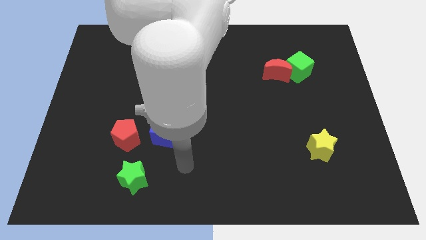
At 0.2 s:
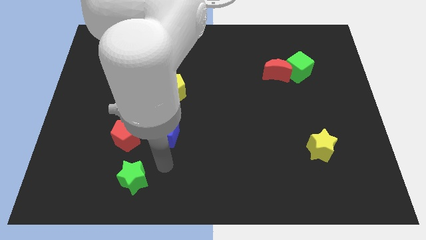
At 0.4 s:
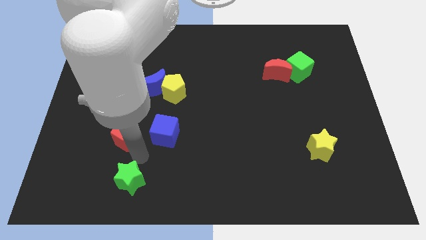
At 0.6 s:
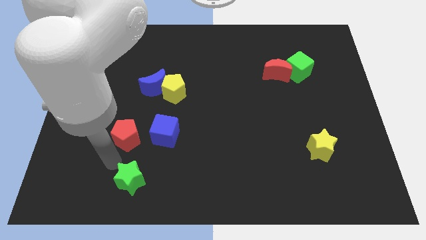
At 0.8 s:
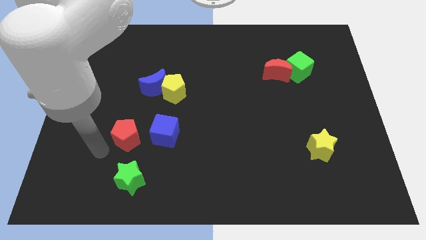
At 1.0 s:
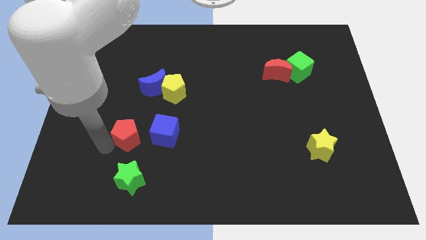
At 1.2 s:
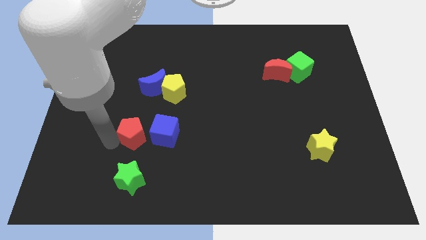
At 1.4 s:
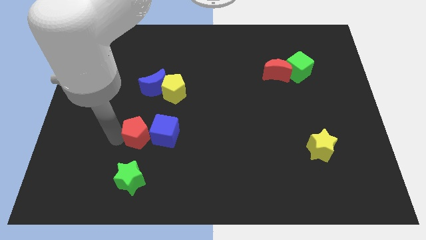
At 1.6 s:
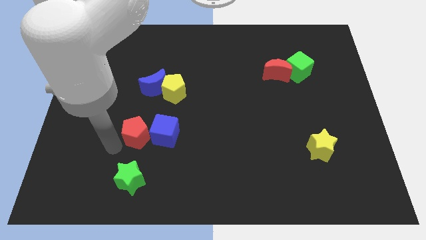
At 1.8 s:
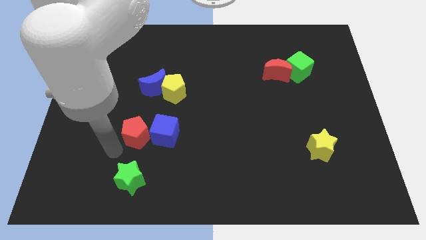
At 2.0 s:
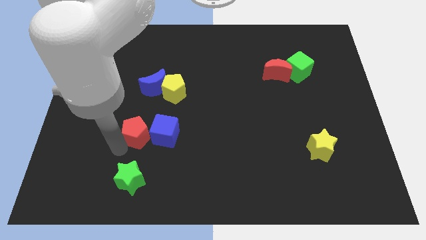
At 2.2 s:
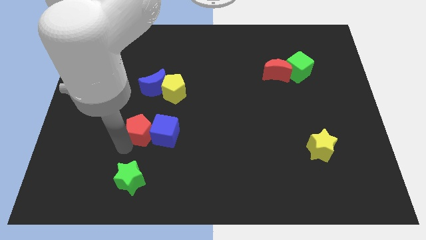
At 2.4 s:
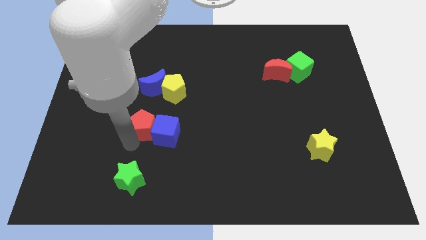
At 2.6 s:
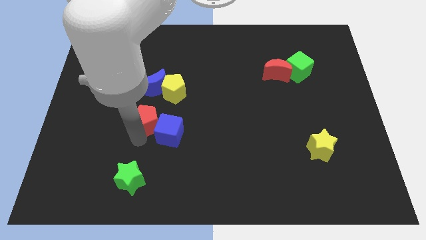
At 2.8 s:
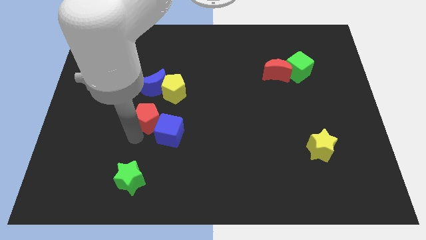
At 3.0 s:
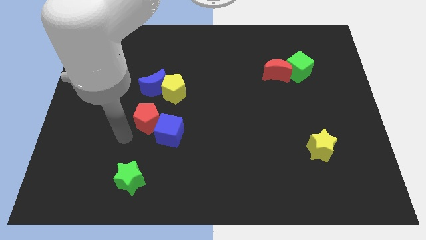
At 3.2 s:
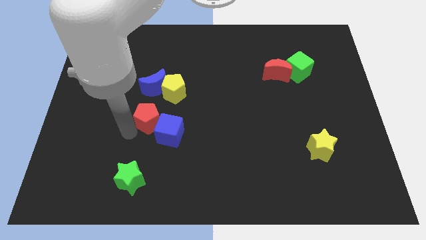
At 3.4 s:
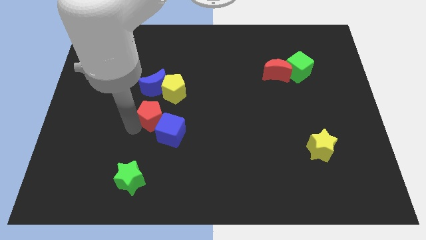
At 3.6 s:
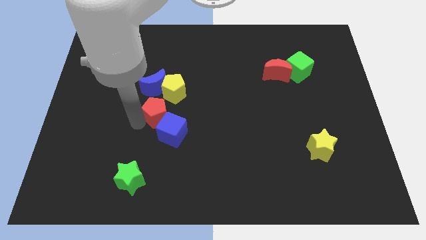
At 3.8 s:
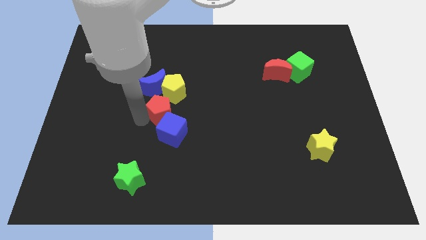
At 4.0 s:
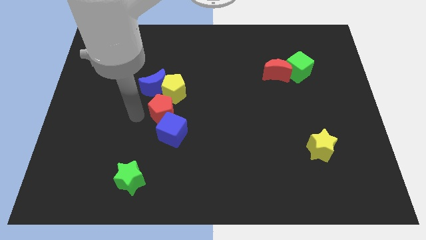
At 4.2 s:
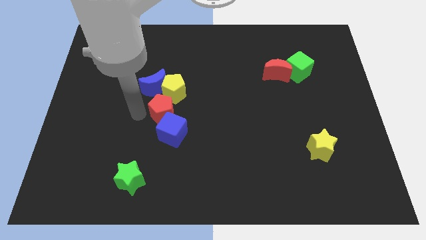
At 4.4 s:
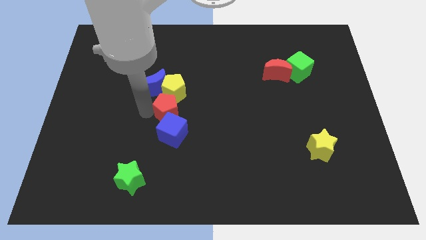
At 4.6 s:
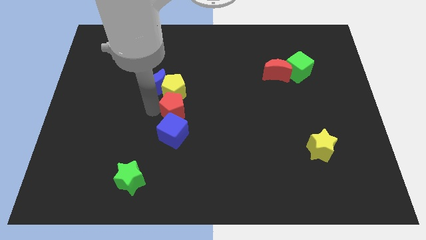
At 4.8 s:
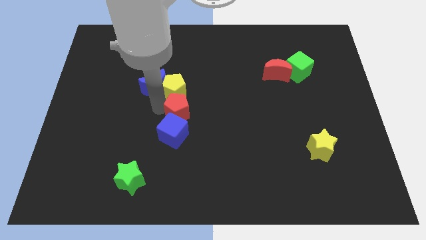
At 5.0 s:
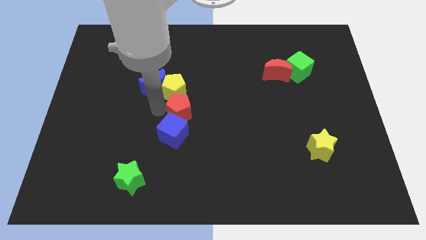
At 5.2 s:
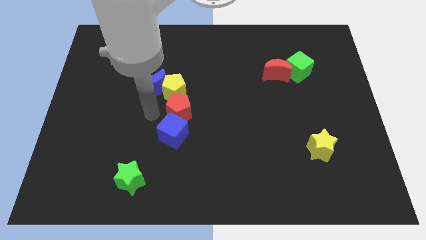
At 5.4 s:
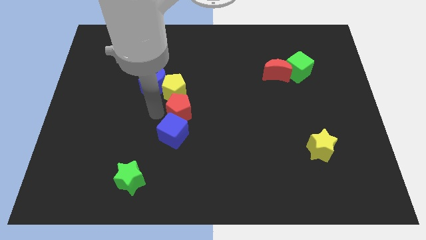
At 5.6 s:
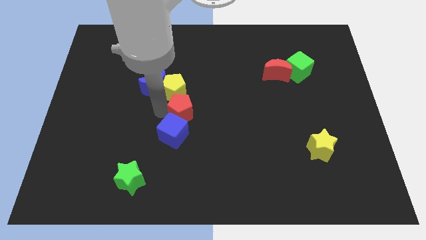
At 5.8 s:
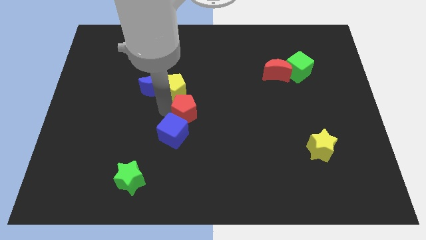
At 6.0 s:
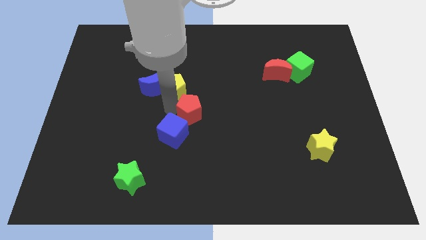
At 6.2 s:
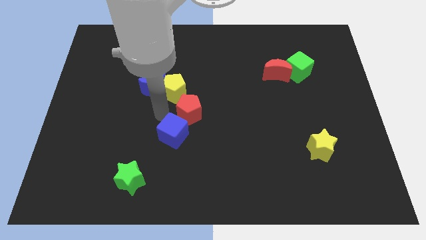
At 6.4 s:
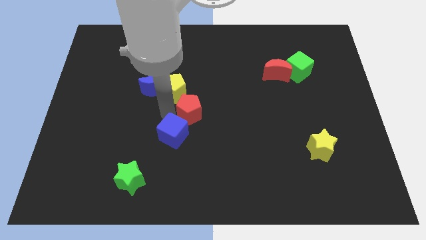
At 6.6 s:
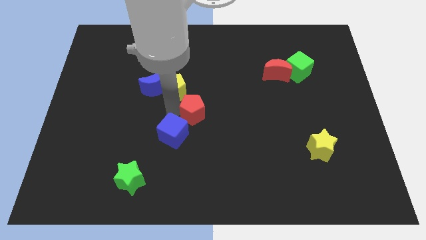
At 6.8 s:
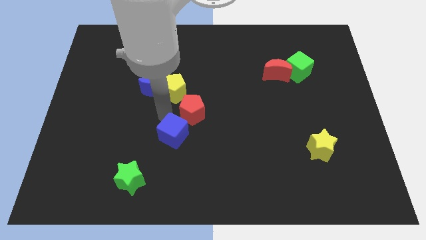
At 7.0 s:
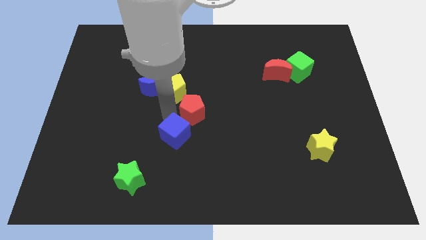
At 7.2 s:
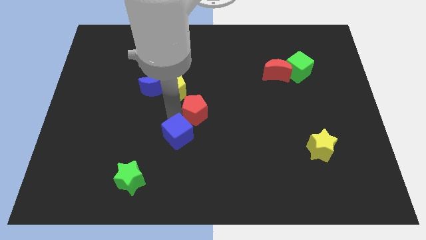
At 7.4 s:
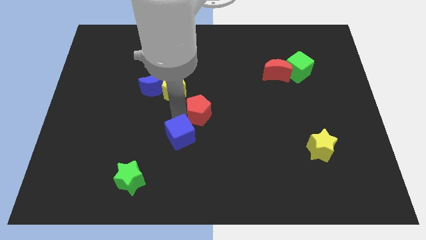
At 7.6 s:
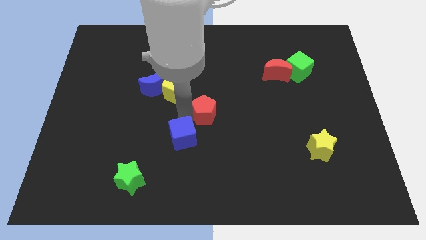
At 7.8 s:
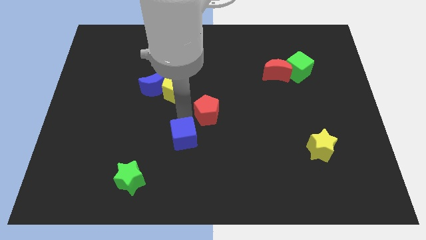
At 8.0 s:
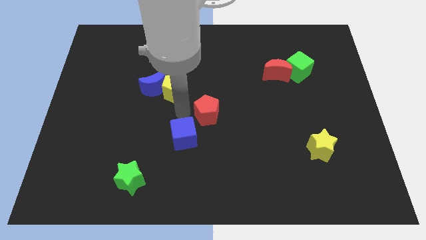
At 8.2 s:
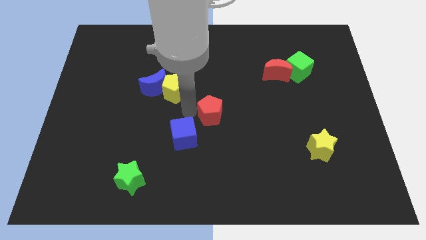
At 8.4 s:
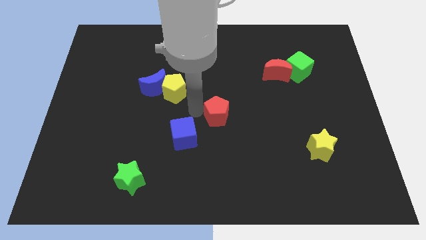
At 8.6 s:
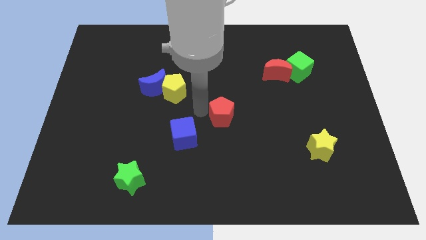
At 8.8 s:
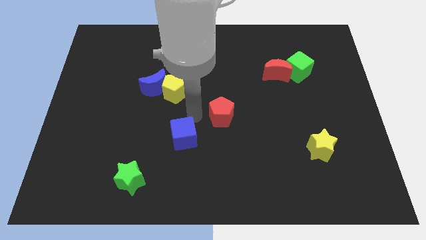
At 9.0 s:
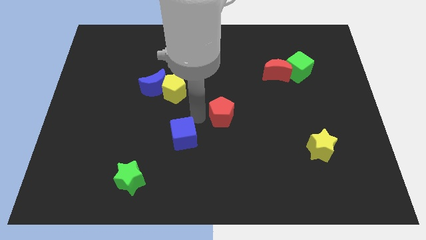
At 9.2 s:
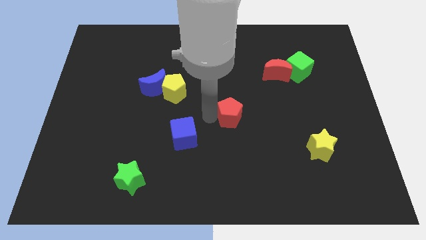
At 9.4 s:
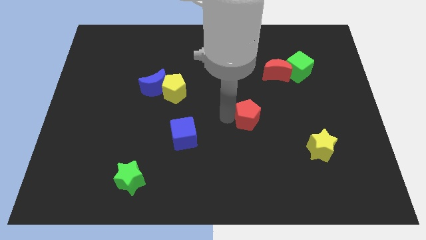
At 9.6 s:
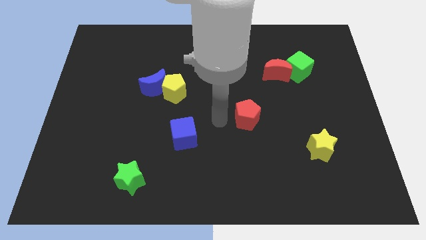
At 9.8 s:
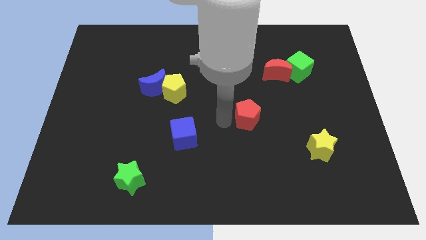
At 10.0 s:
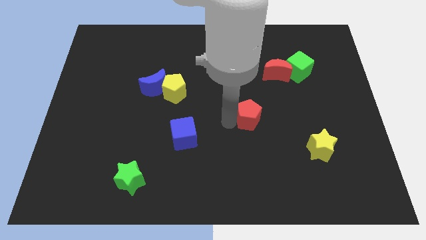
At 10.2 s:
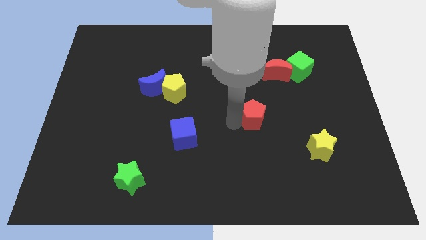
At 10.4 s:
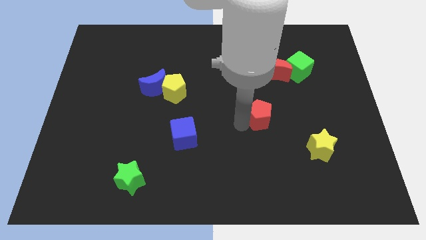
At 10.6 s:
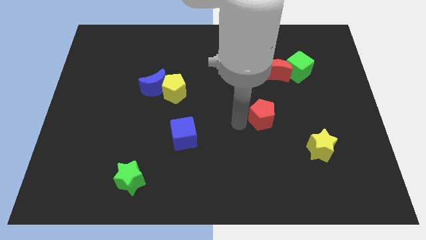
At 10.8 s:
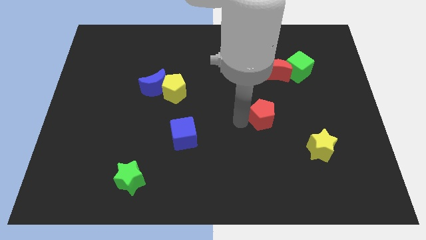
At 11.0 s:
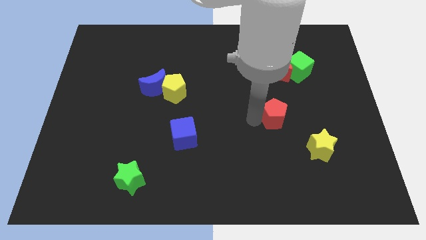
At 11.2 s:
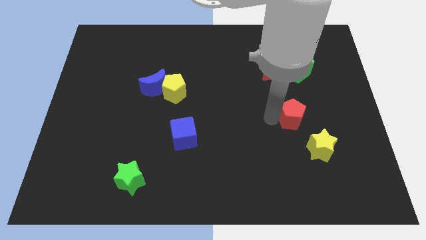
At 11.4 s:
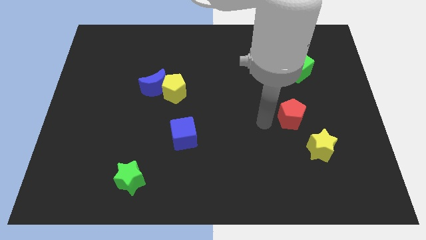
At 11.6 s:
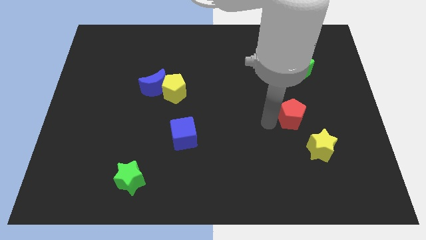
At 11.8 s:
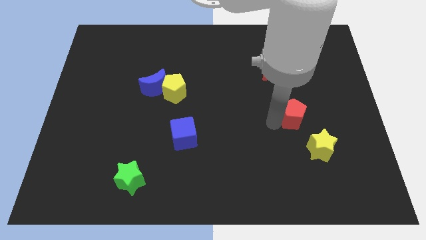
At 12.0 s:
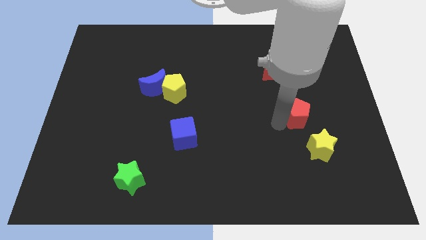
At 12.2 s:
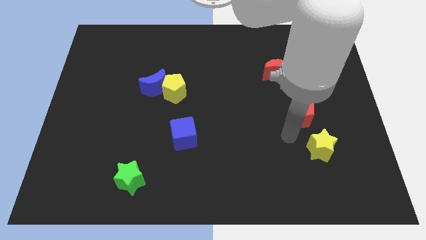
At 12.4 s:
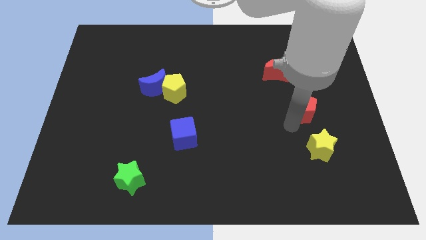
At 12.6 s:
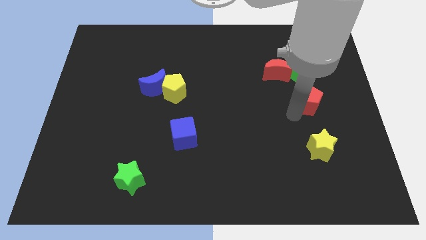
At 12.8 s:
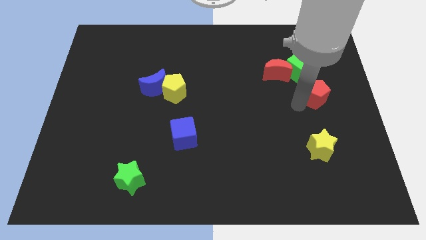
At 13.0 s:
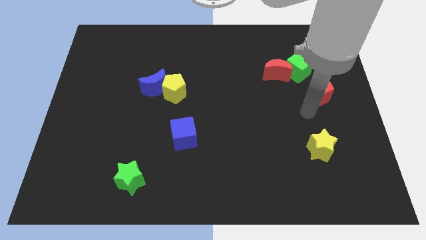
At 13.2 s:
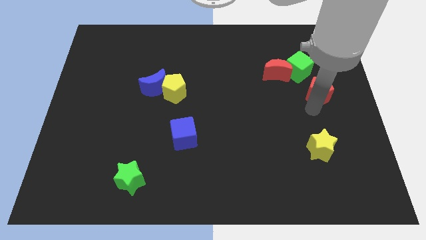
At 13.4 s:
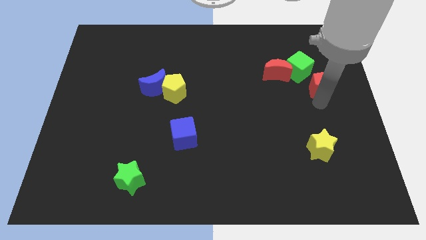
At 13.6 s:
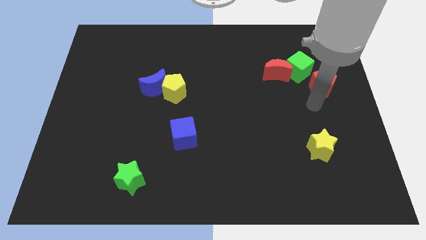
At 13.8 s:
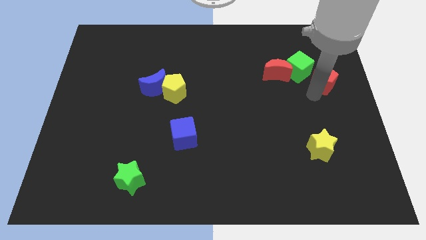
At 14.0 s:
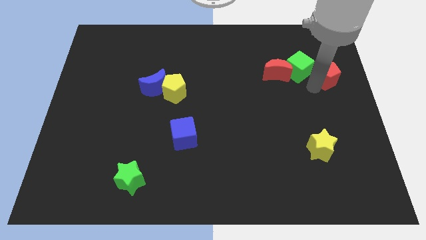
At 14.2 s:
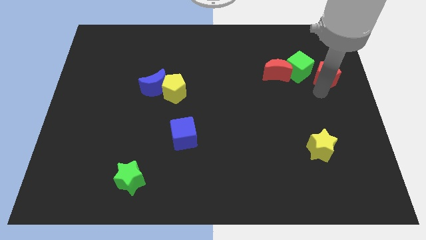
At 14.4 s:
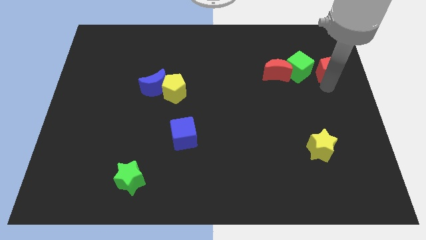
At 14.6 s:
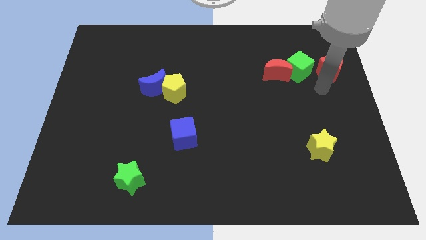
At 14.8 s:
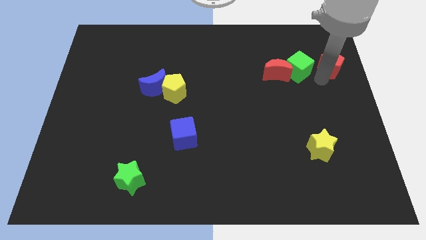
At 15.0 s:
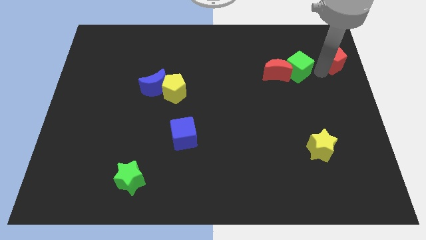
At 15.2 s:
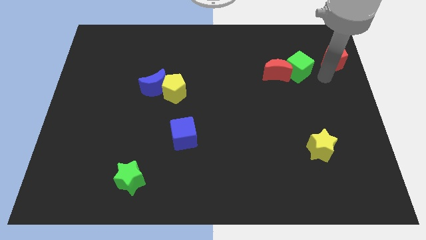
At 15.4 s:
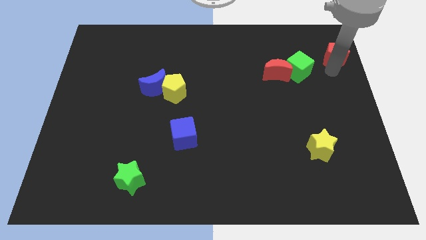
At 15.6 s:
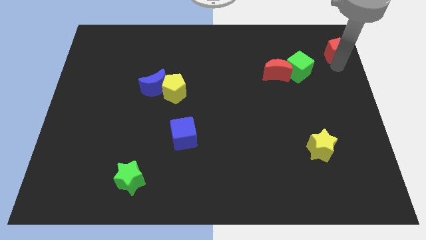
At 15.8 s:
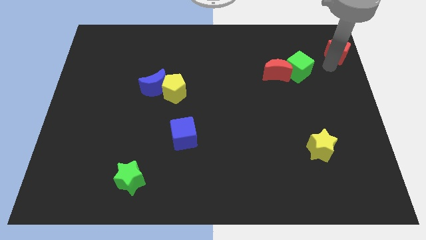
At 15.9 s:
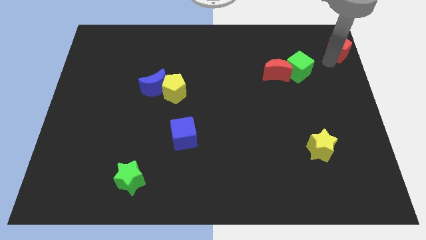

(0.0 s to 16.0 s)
push the red pentagon to the top right
